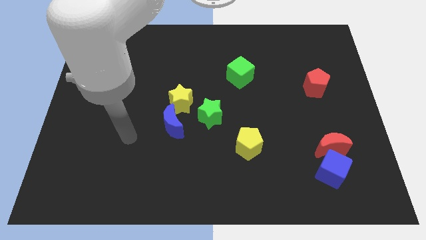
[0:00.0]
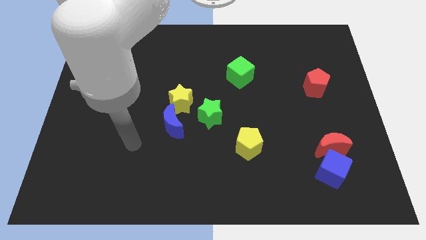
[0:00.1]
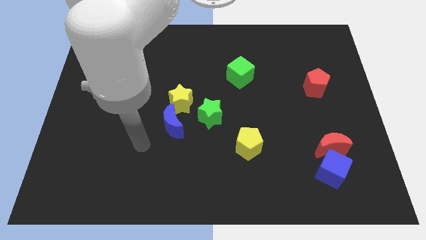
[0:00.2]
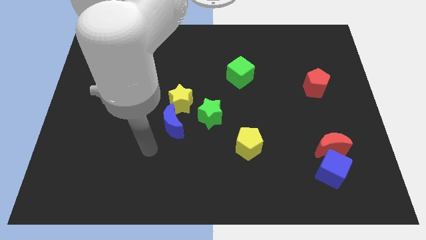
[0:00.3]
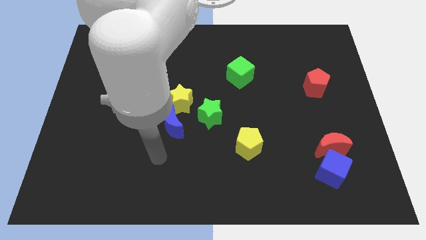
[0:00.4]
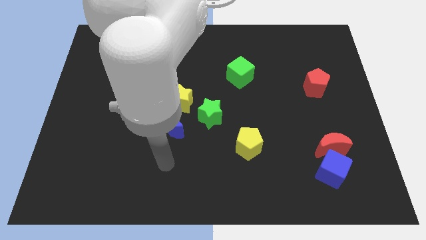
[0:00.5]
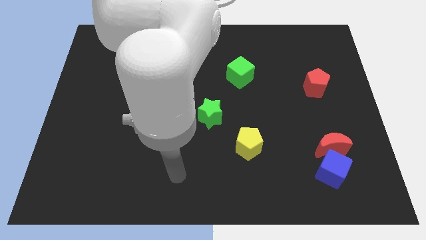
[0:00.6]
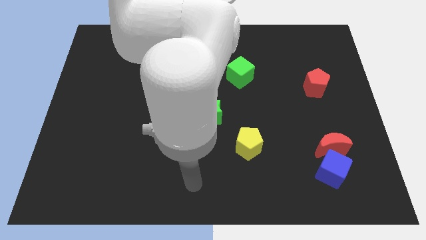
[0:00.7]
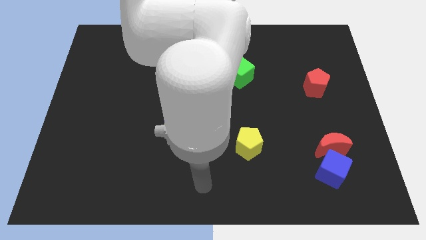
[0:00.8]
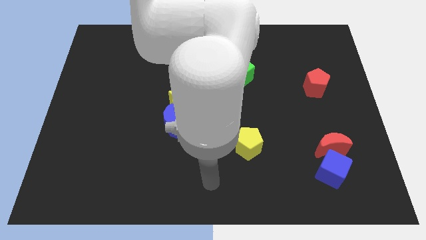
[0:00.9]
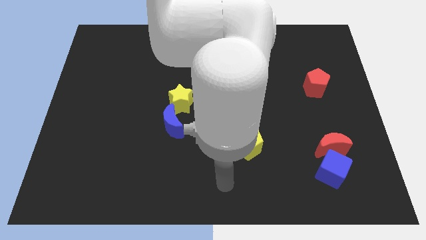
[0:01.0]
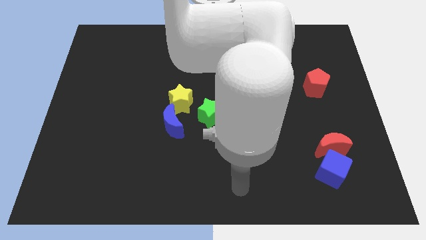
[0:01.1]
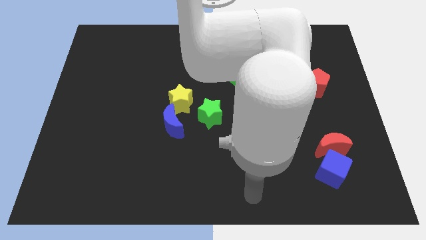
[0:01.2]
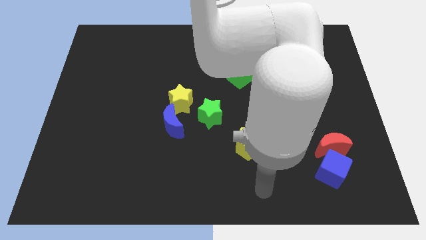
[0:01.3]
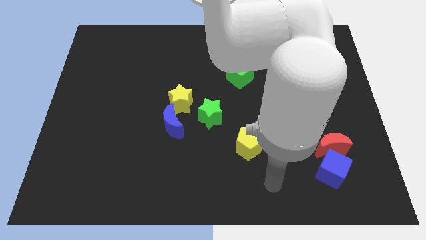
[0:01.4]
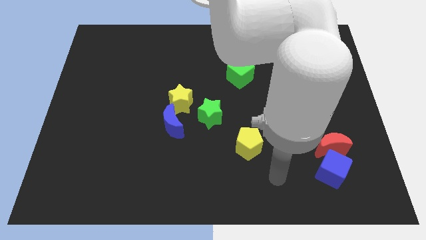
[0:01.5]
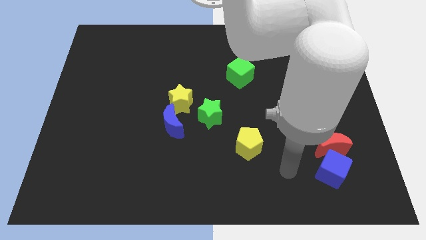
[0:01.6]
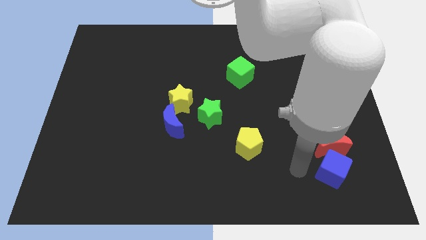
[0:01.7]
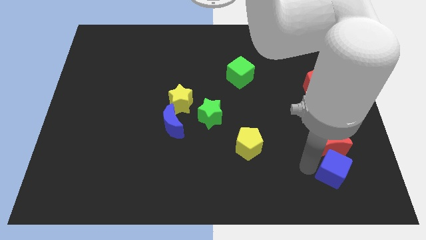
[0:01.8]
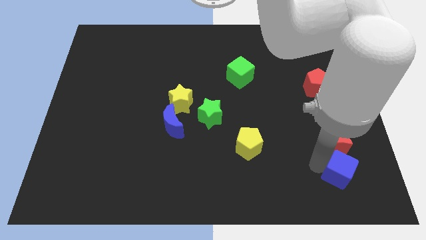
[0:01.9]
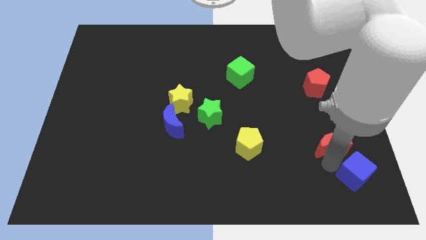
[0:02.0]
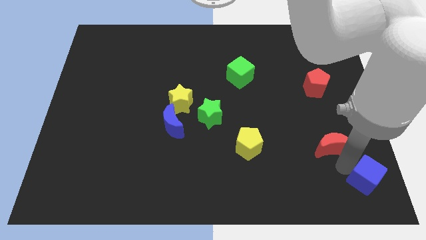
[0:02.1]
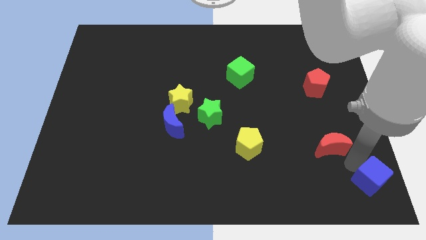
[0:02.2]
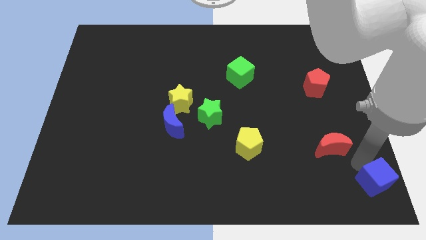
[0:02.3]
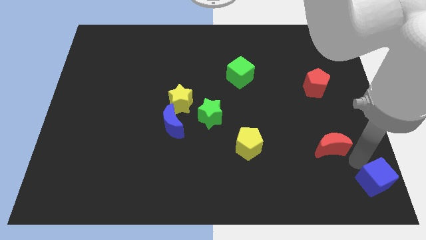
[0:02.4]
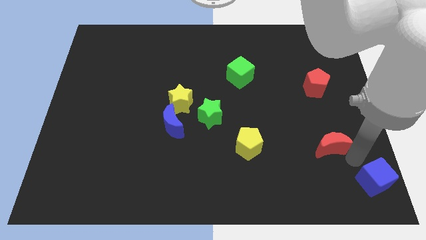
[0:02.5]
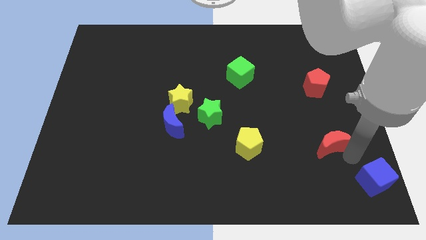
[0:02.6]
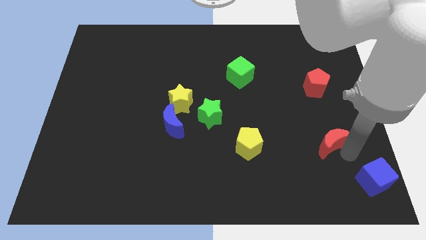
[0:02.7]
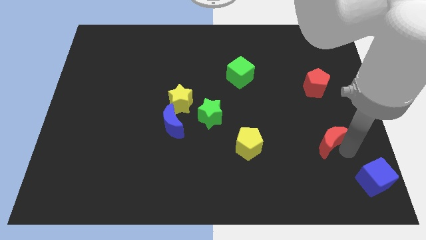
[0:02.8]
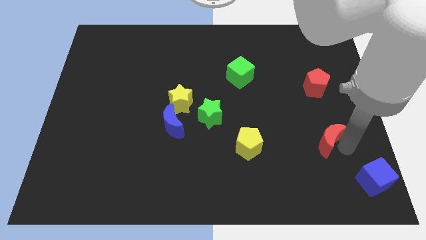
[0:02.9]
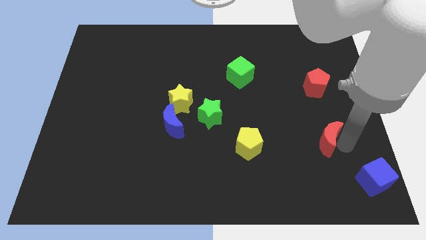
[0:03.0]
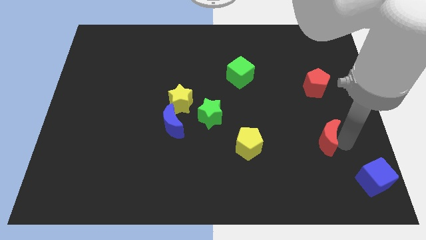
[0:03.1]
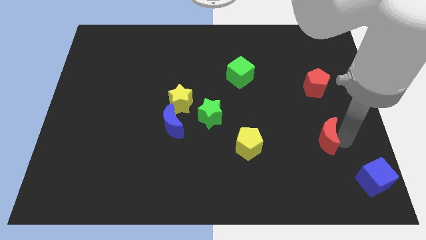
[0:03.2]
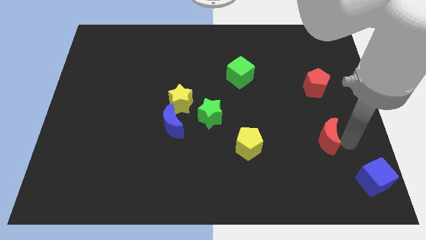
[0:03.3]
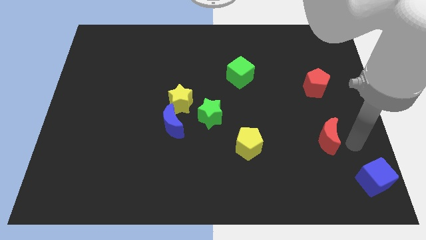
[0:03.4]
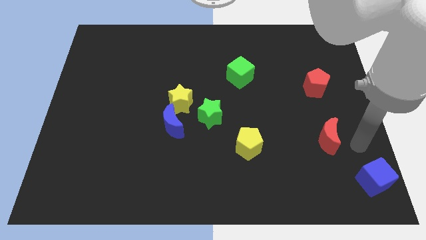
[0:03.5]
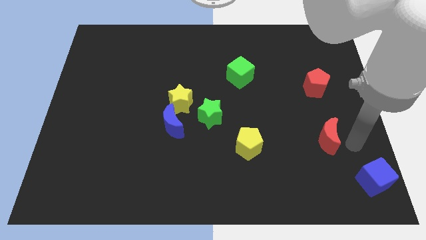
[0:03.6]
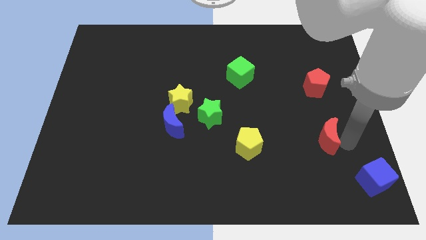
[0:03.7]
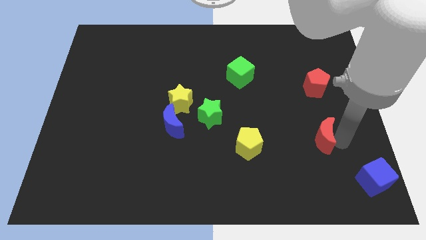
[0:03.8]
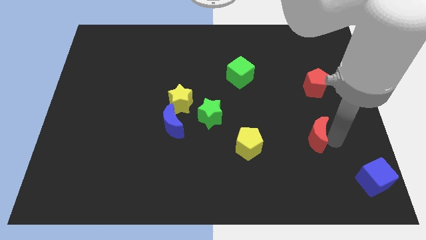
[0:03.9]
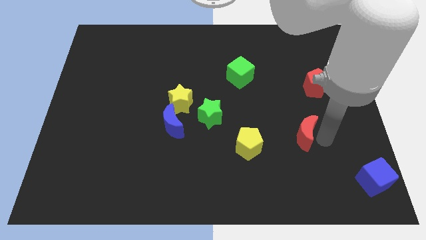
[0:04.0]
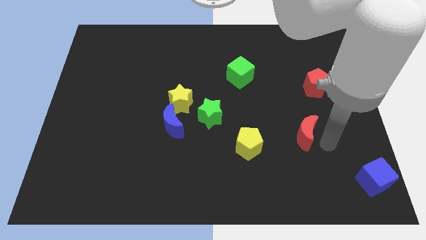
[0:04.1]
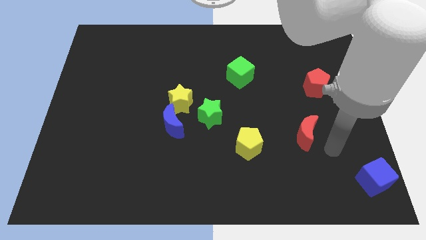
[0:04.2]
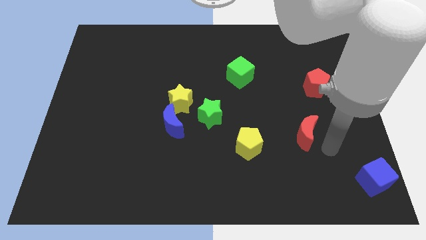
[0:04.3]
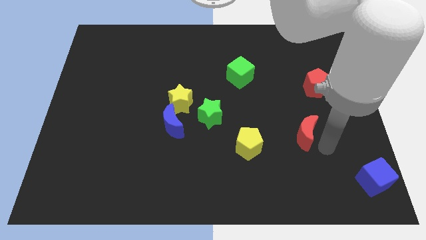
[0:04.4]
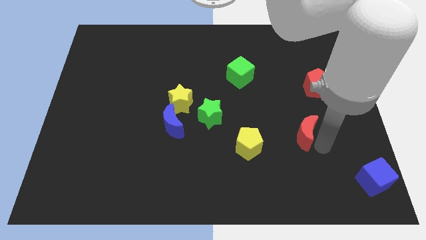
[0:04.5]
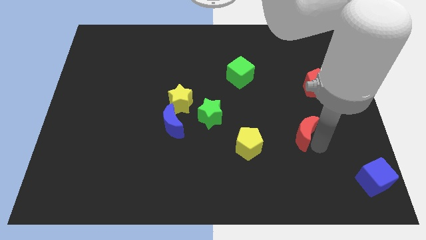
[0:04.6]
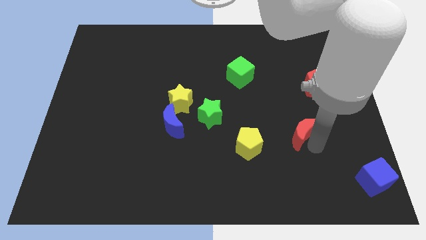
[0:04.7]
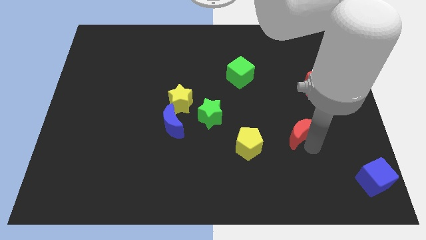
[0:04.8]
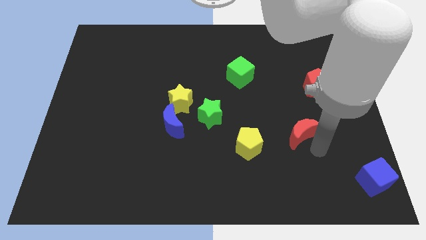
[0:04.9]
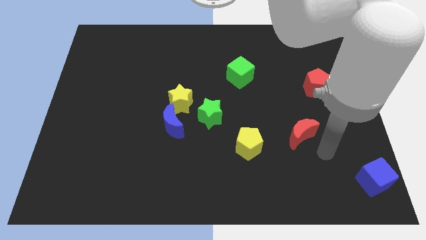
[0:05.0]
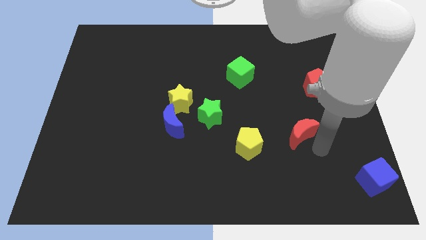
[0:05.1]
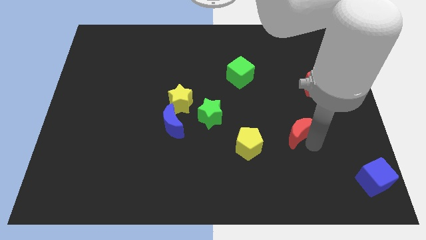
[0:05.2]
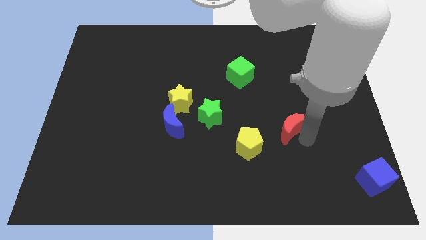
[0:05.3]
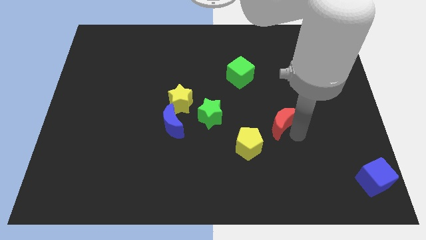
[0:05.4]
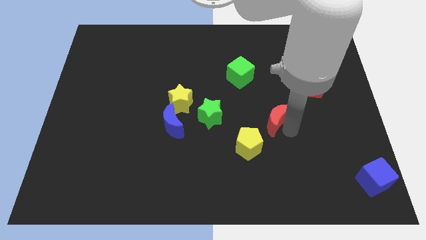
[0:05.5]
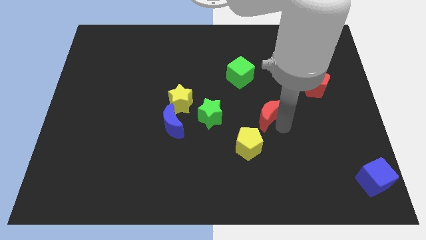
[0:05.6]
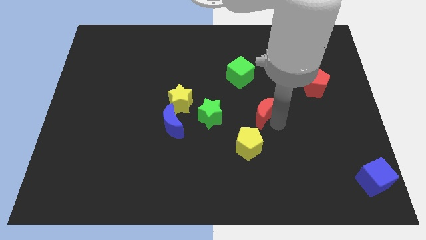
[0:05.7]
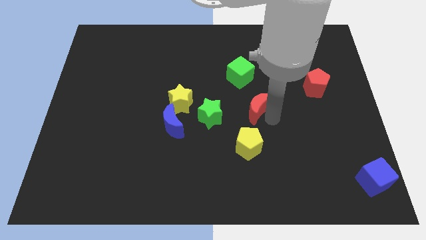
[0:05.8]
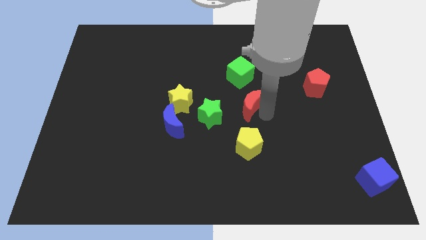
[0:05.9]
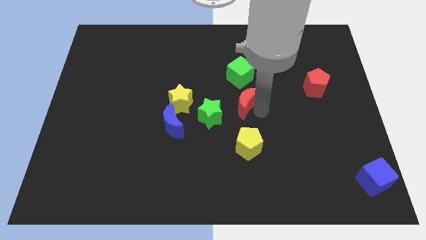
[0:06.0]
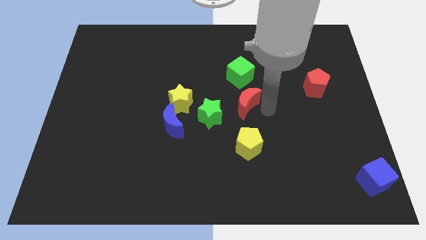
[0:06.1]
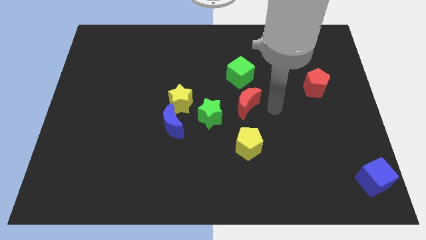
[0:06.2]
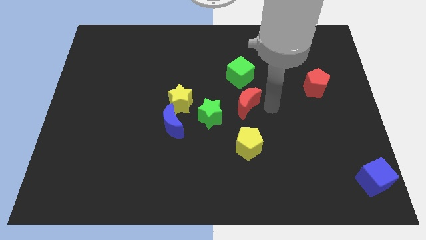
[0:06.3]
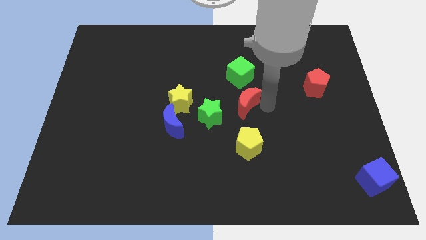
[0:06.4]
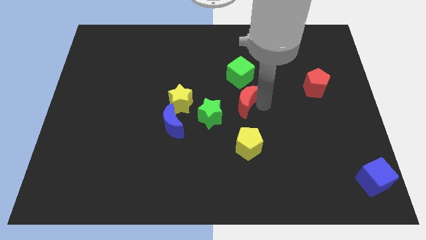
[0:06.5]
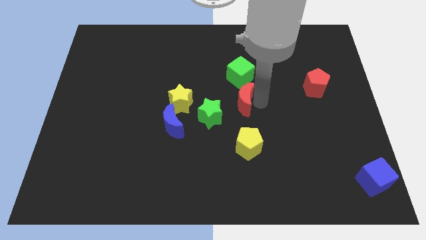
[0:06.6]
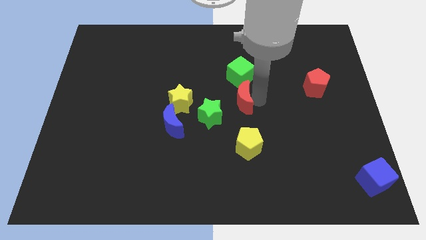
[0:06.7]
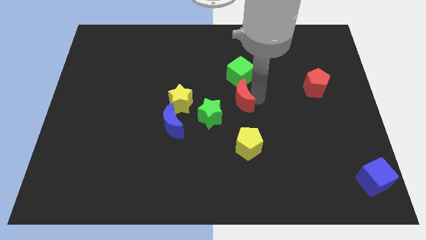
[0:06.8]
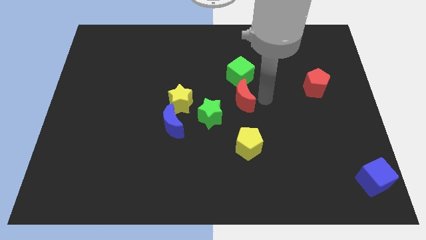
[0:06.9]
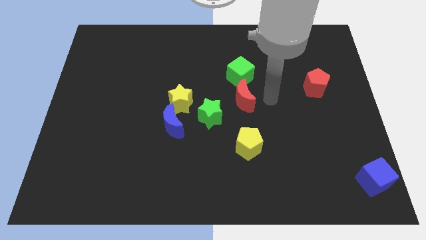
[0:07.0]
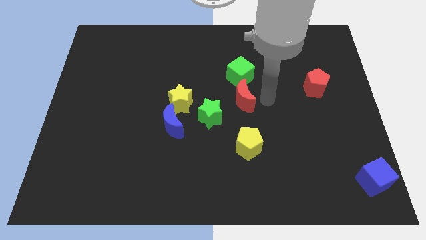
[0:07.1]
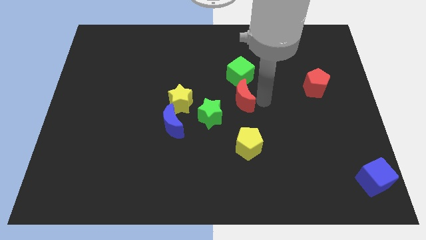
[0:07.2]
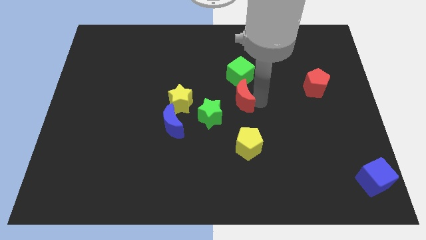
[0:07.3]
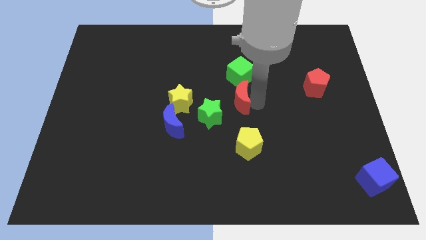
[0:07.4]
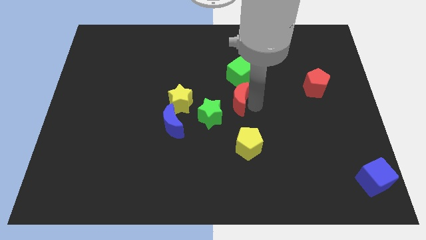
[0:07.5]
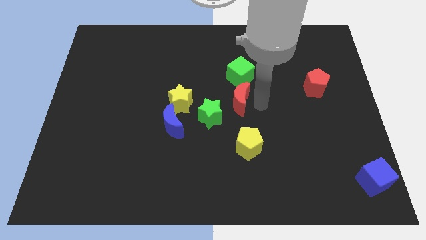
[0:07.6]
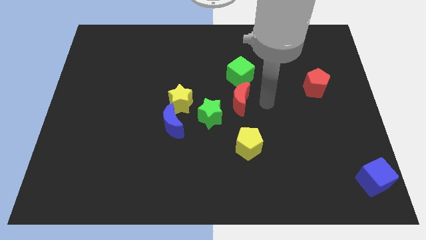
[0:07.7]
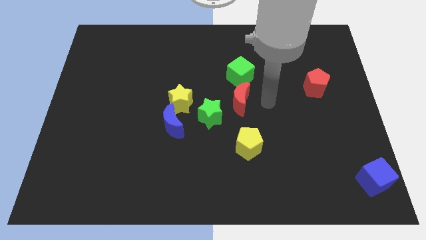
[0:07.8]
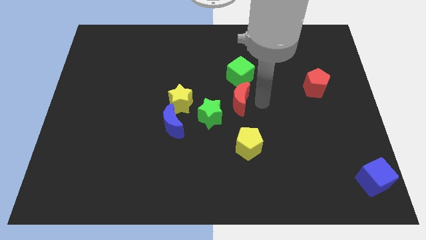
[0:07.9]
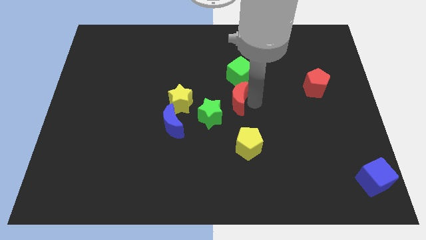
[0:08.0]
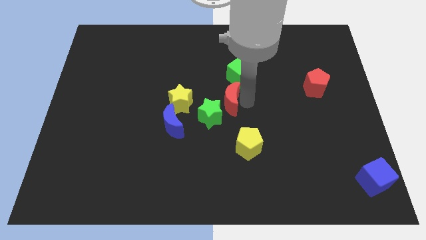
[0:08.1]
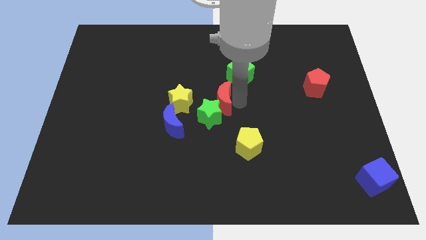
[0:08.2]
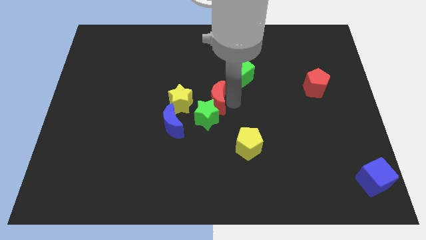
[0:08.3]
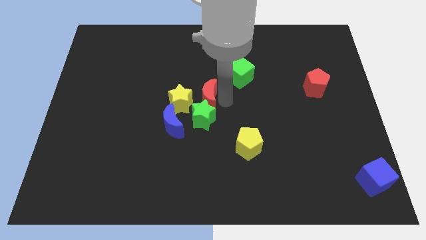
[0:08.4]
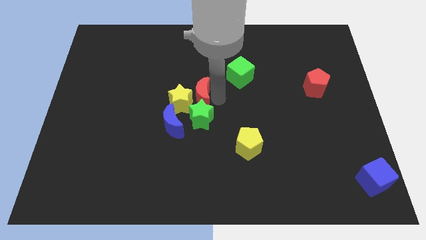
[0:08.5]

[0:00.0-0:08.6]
push the red moon next to the yellow star
